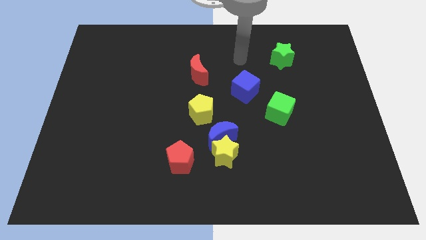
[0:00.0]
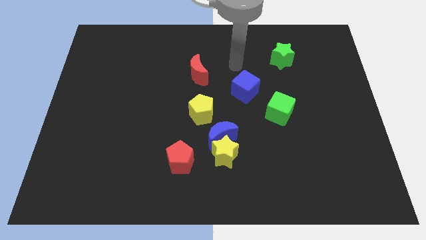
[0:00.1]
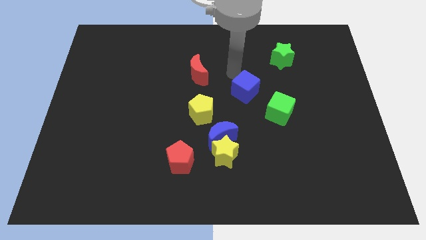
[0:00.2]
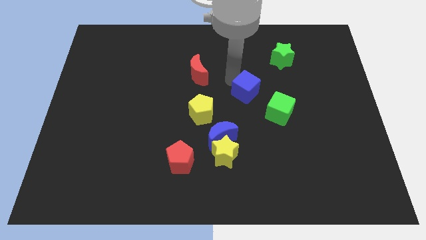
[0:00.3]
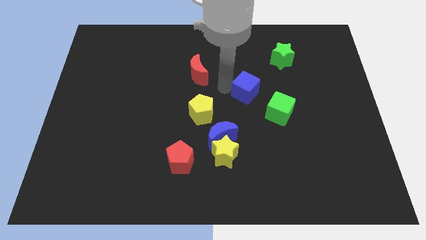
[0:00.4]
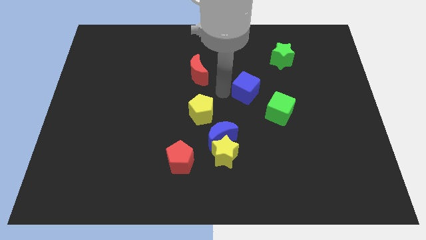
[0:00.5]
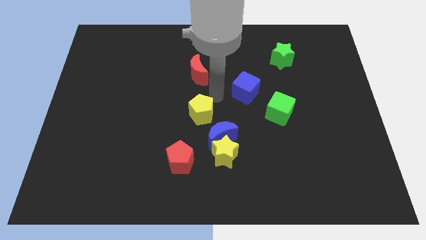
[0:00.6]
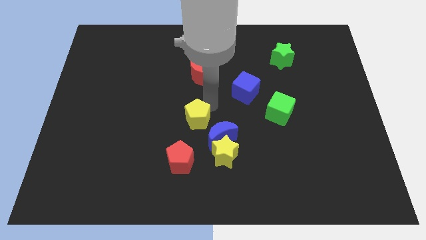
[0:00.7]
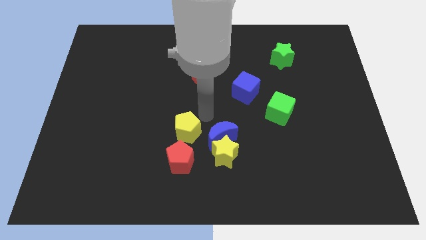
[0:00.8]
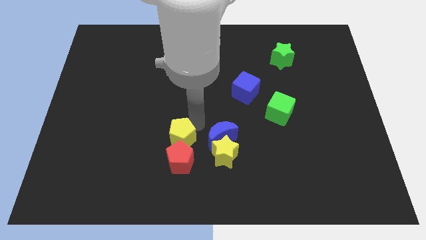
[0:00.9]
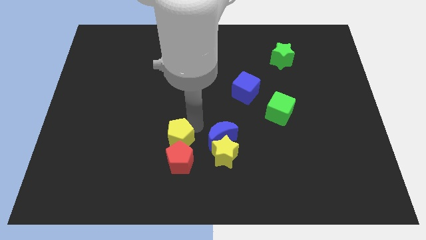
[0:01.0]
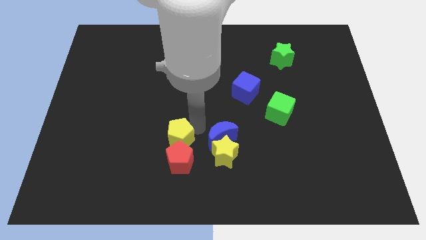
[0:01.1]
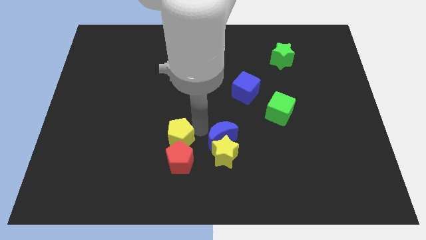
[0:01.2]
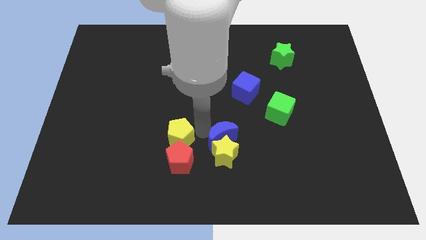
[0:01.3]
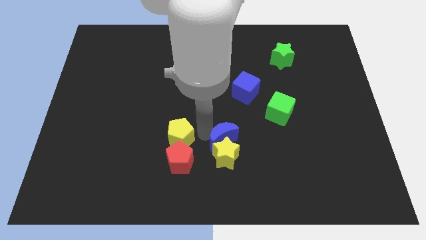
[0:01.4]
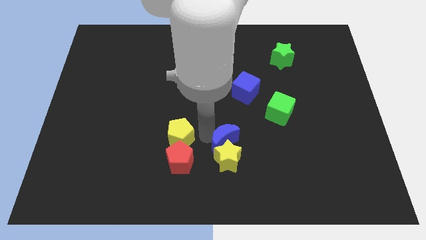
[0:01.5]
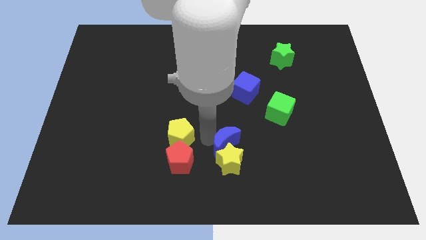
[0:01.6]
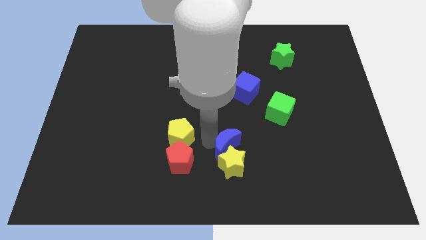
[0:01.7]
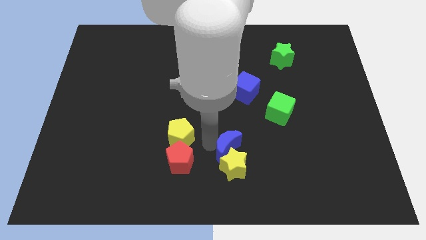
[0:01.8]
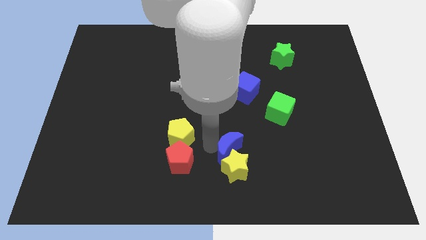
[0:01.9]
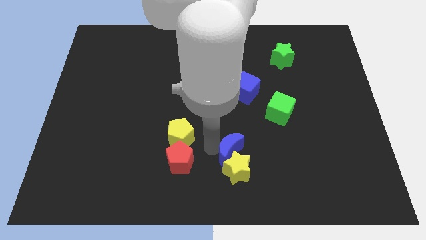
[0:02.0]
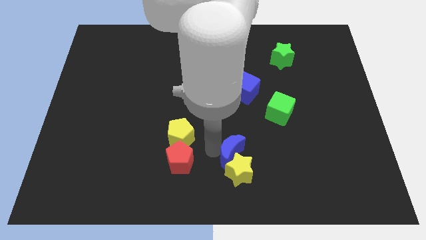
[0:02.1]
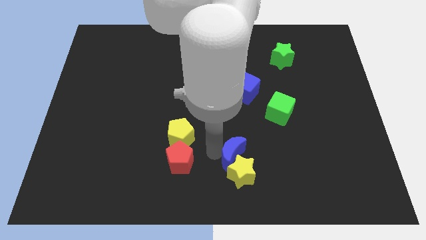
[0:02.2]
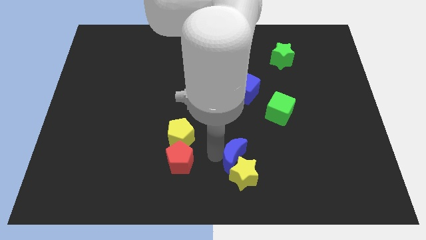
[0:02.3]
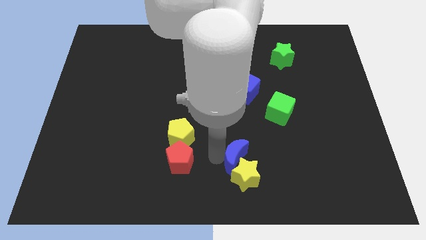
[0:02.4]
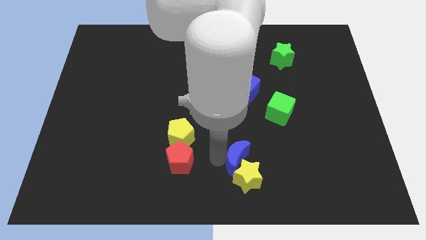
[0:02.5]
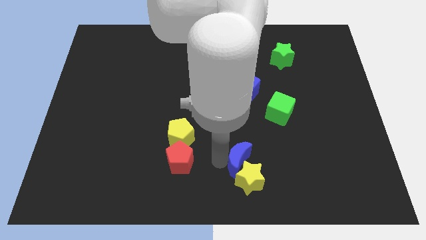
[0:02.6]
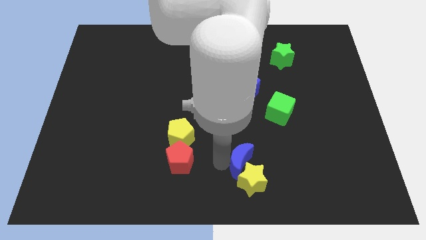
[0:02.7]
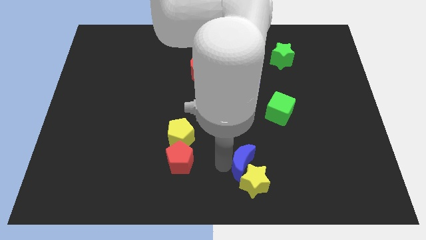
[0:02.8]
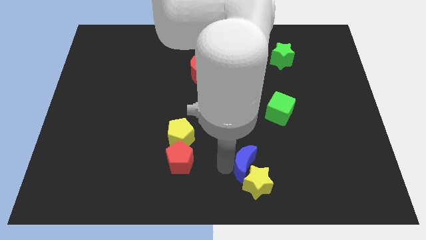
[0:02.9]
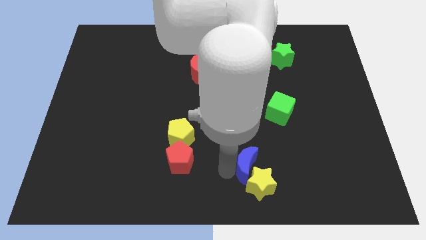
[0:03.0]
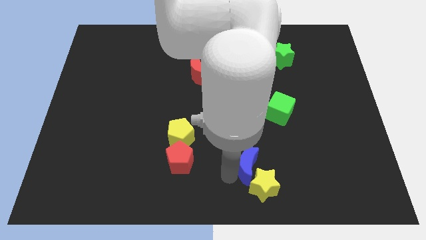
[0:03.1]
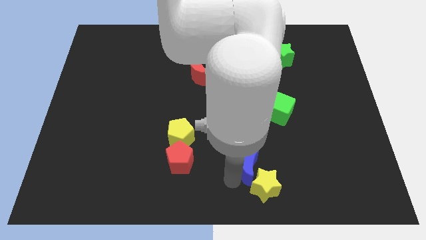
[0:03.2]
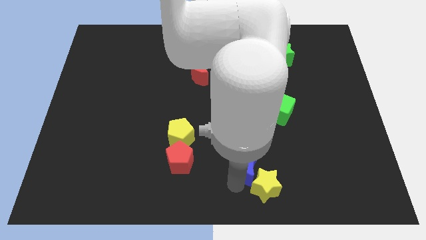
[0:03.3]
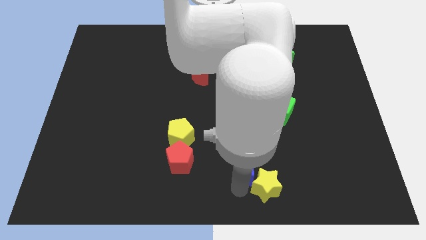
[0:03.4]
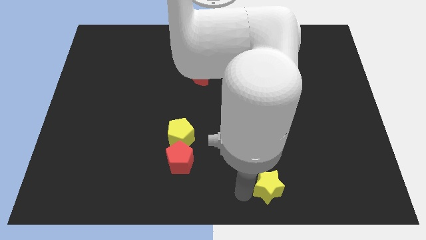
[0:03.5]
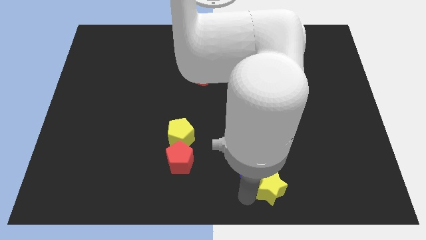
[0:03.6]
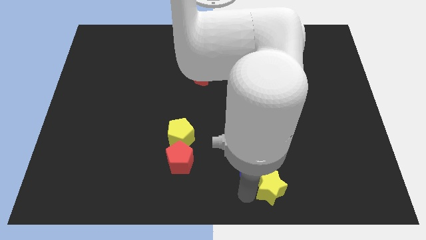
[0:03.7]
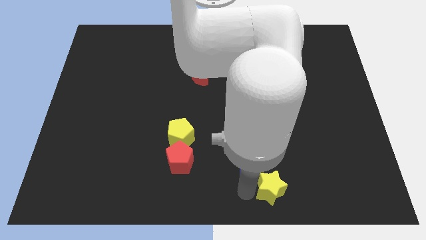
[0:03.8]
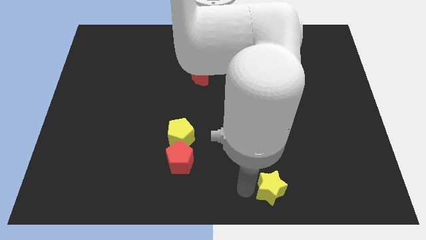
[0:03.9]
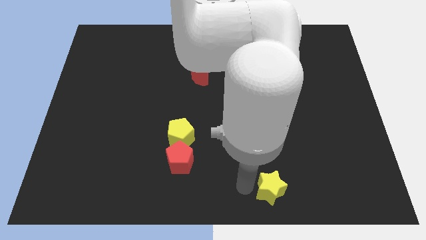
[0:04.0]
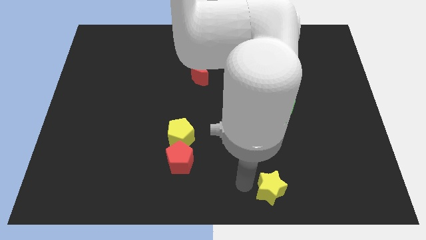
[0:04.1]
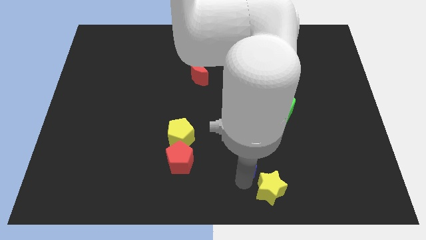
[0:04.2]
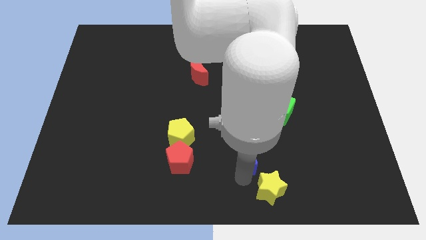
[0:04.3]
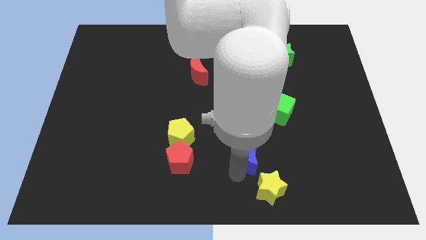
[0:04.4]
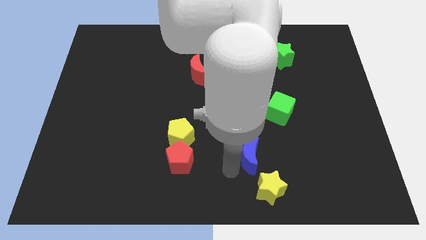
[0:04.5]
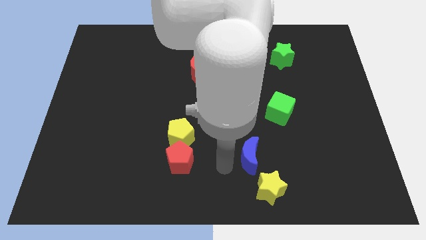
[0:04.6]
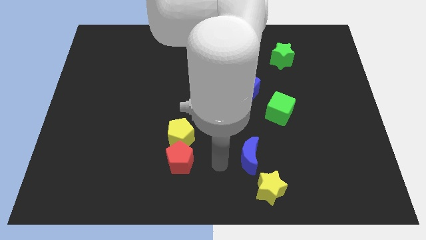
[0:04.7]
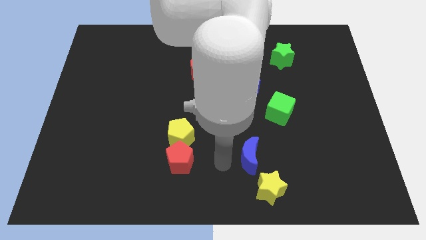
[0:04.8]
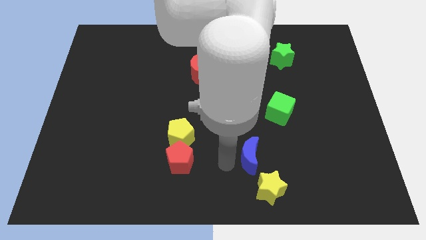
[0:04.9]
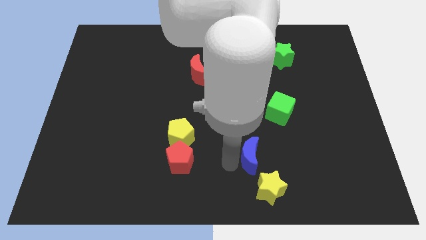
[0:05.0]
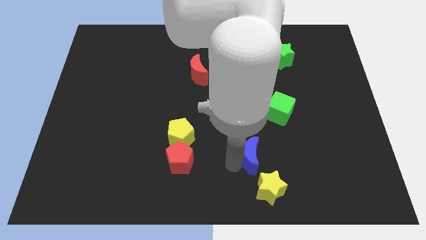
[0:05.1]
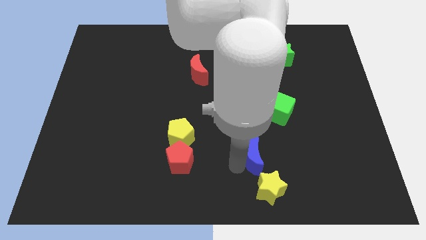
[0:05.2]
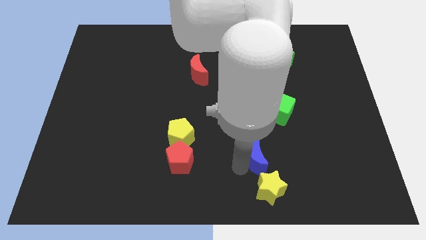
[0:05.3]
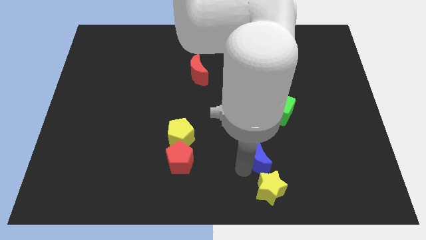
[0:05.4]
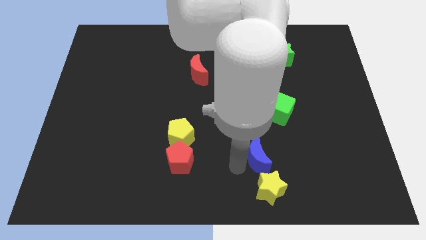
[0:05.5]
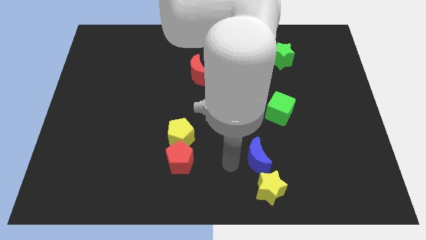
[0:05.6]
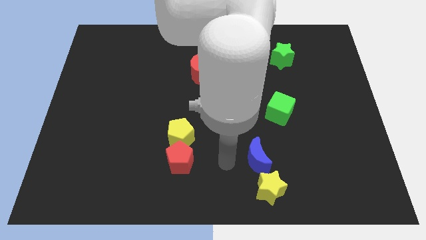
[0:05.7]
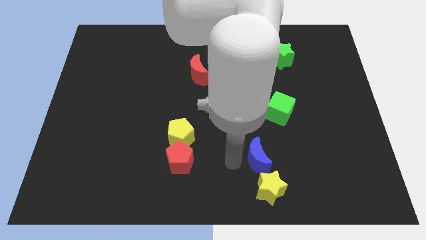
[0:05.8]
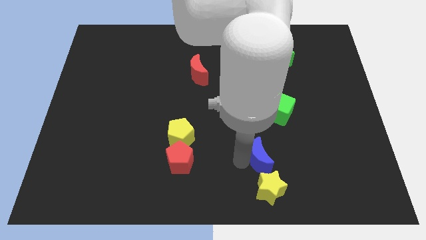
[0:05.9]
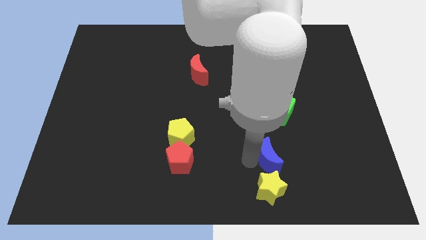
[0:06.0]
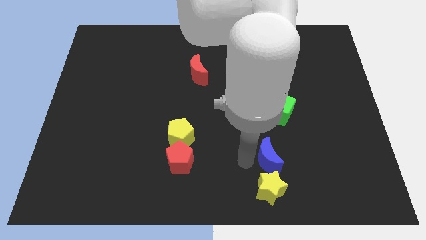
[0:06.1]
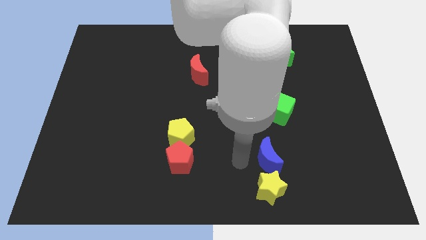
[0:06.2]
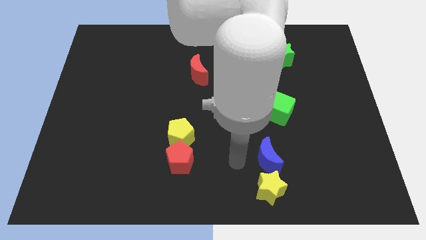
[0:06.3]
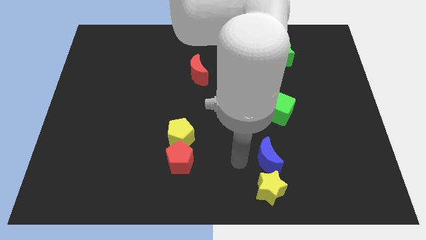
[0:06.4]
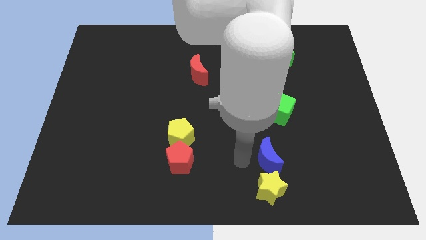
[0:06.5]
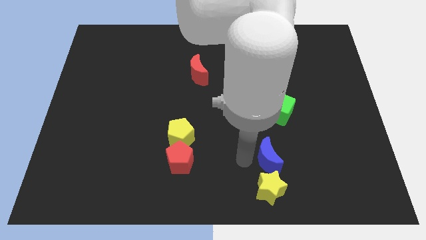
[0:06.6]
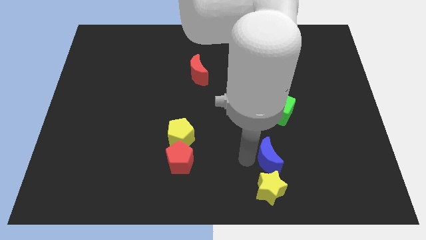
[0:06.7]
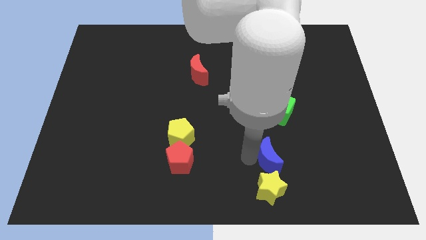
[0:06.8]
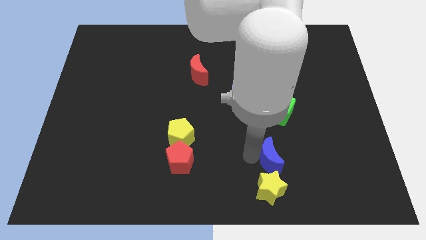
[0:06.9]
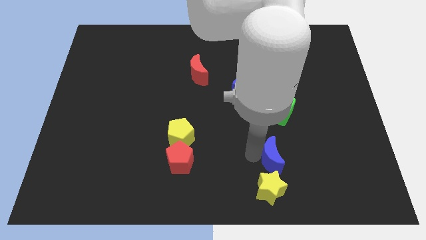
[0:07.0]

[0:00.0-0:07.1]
pull the blue moon apart from the yellow star and yellow pentagon

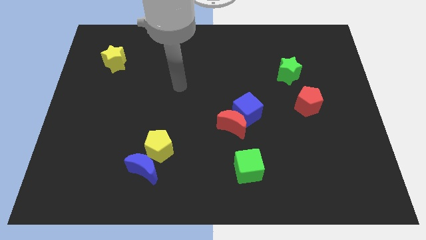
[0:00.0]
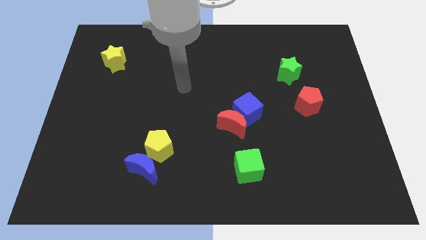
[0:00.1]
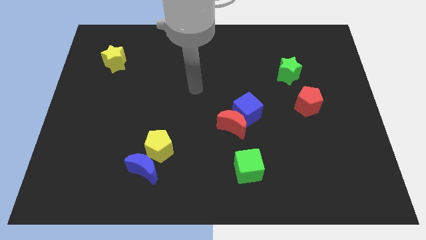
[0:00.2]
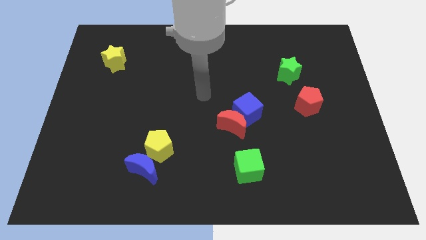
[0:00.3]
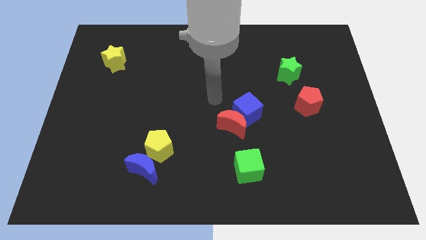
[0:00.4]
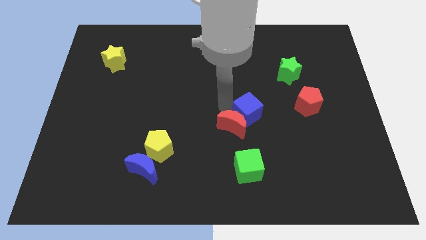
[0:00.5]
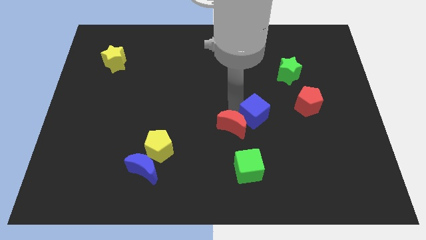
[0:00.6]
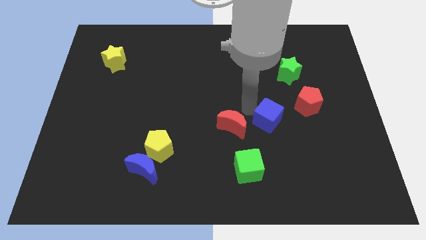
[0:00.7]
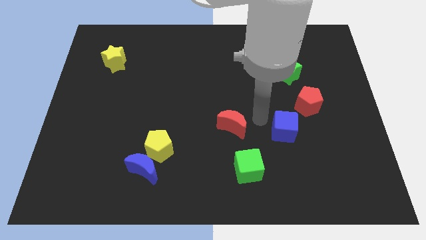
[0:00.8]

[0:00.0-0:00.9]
pull the red moon apart from the blue cube

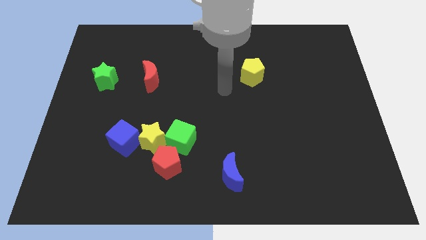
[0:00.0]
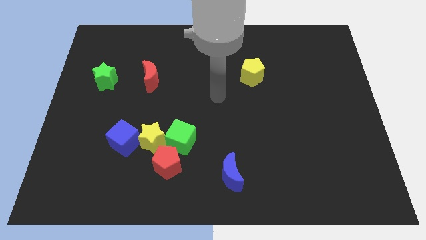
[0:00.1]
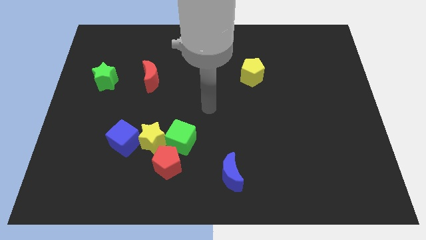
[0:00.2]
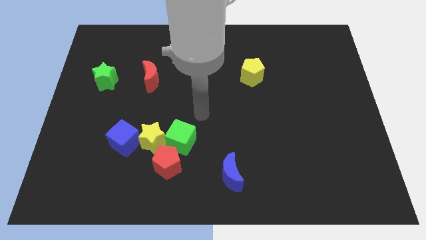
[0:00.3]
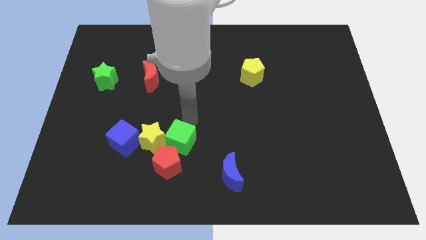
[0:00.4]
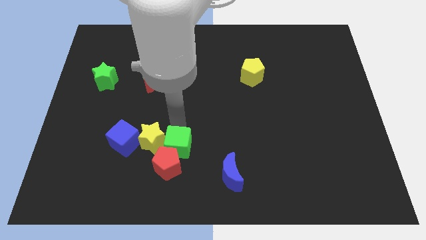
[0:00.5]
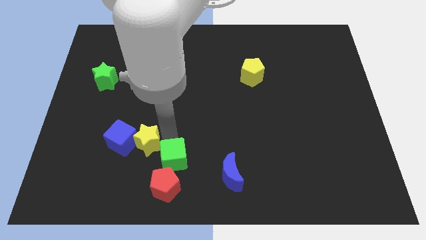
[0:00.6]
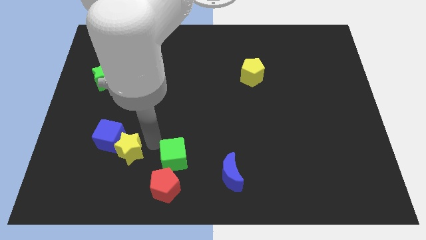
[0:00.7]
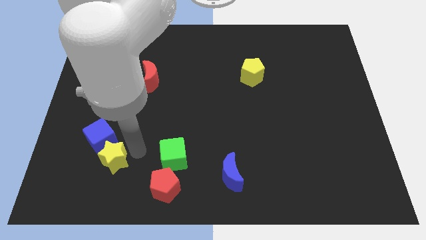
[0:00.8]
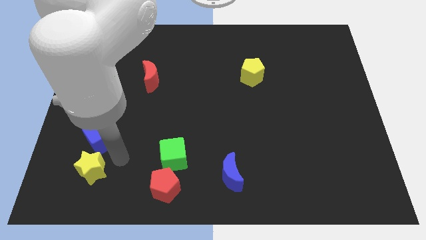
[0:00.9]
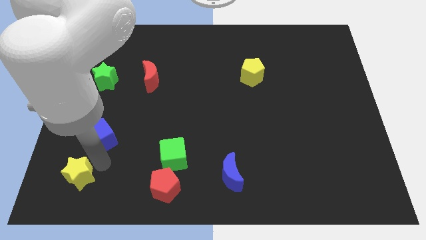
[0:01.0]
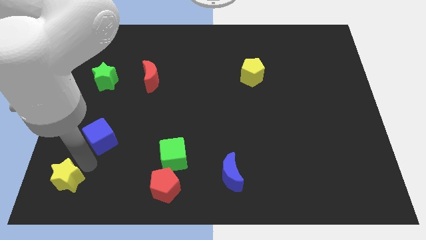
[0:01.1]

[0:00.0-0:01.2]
pull the blue cube apart from the yellow star

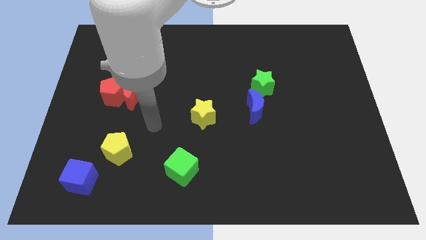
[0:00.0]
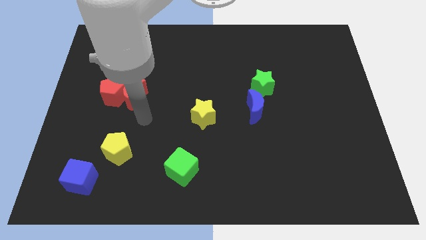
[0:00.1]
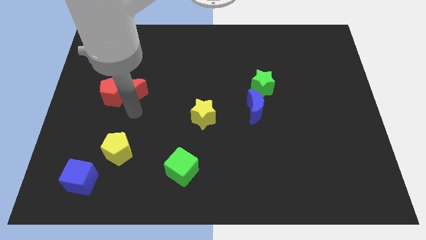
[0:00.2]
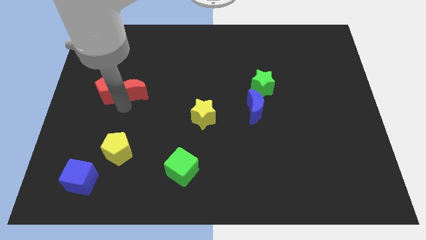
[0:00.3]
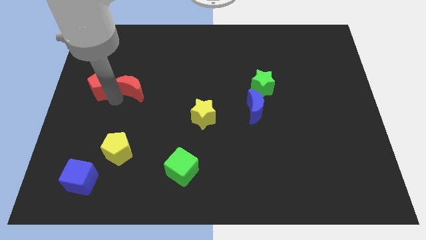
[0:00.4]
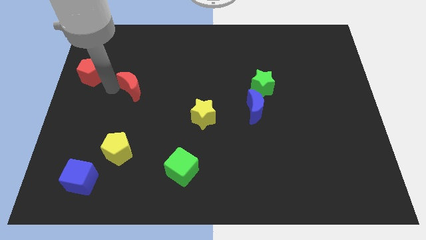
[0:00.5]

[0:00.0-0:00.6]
move the red moon away from the red pentagon
